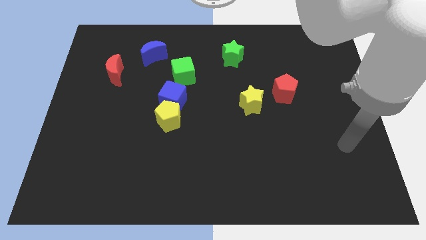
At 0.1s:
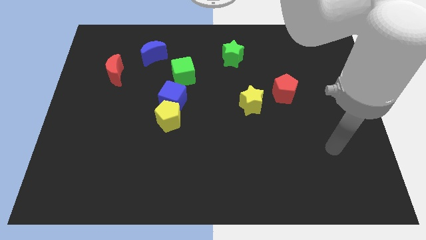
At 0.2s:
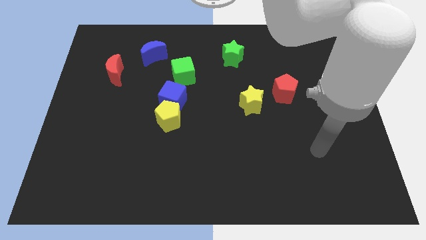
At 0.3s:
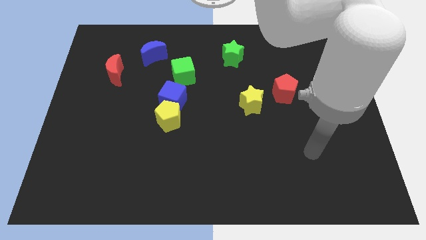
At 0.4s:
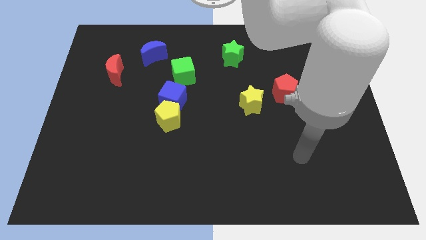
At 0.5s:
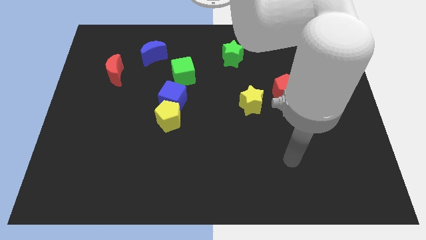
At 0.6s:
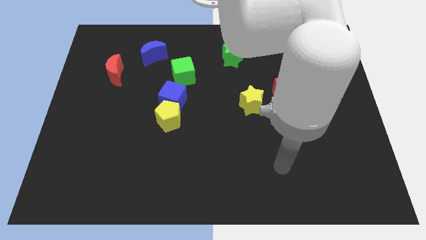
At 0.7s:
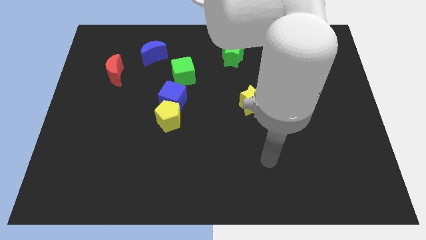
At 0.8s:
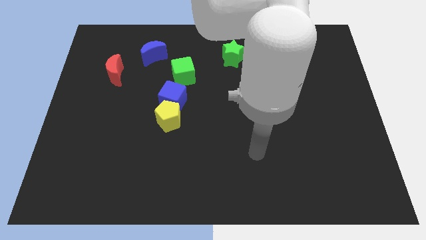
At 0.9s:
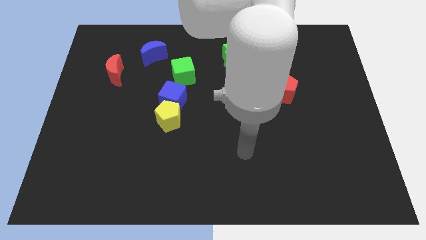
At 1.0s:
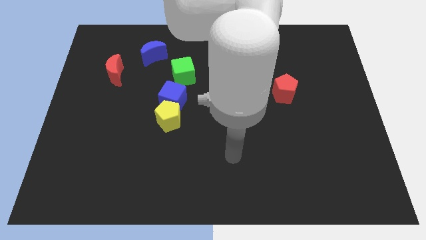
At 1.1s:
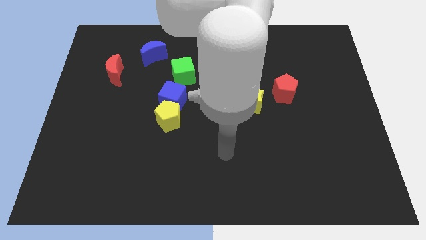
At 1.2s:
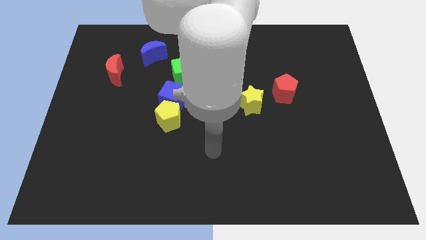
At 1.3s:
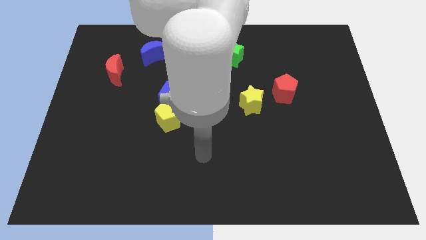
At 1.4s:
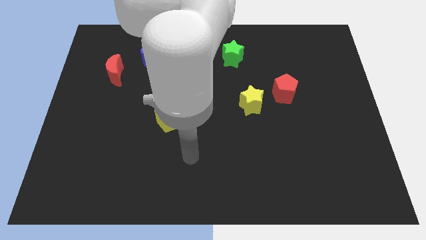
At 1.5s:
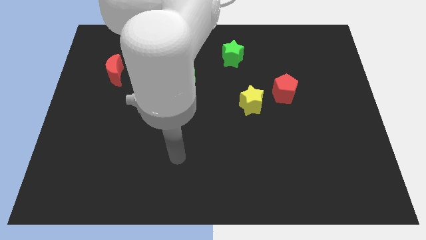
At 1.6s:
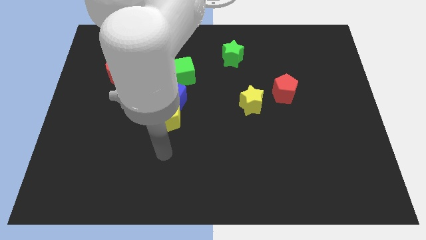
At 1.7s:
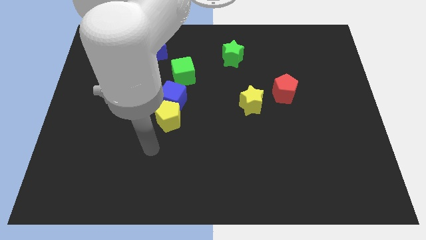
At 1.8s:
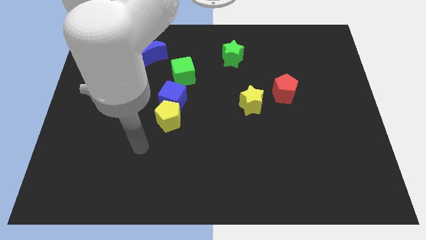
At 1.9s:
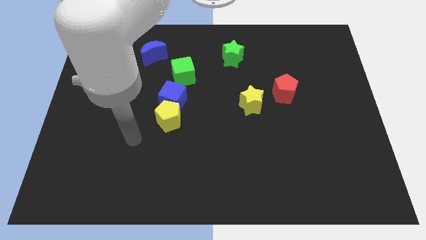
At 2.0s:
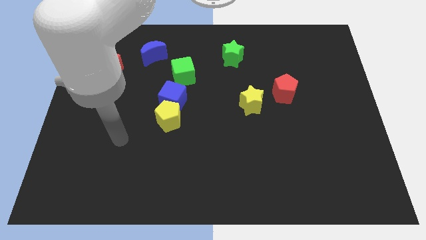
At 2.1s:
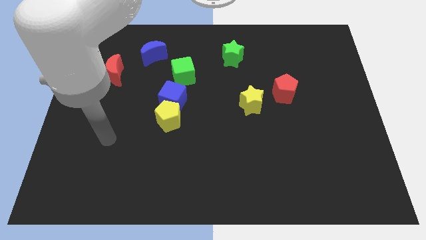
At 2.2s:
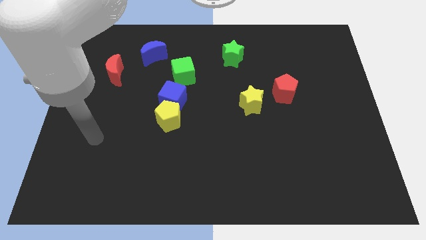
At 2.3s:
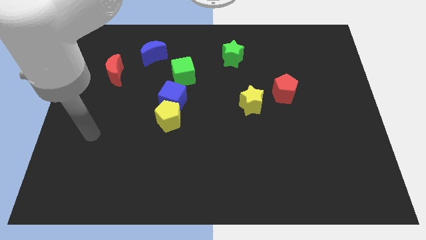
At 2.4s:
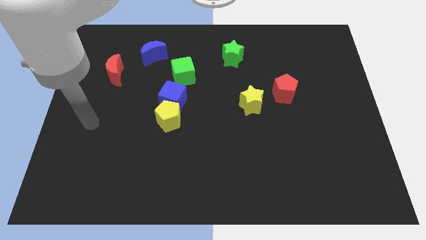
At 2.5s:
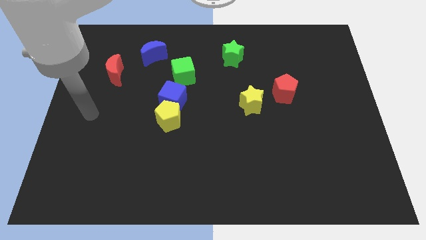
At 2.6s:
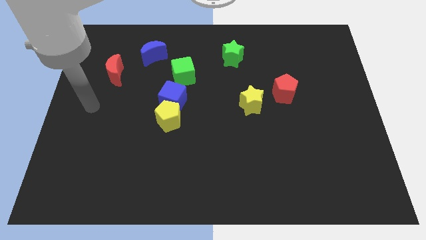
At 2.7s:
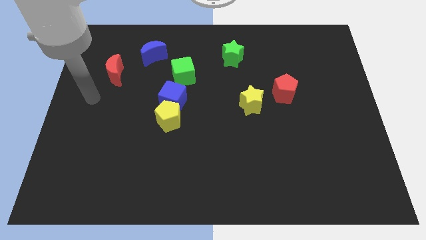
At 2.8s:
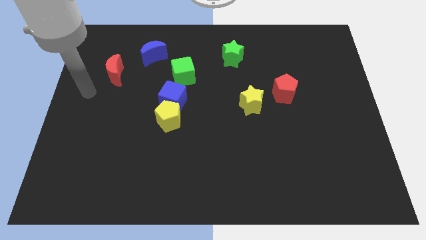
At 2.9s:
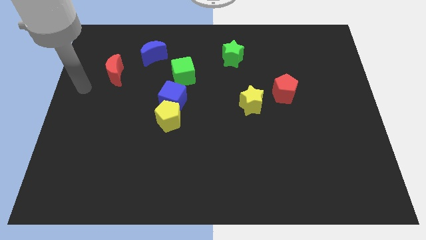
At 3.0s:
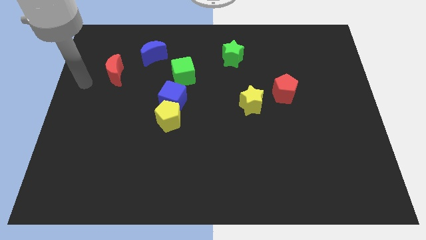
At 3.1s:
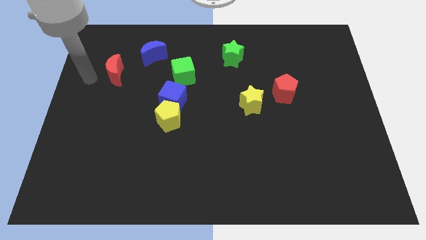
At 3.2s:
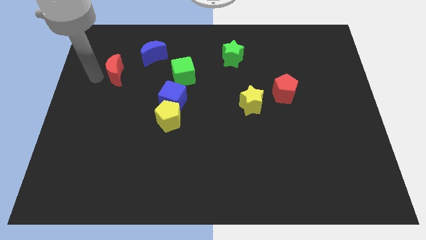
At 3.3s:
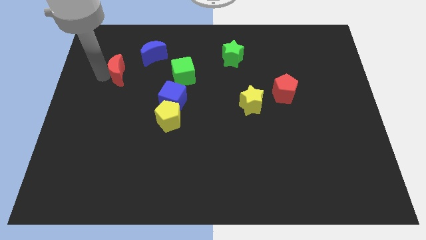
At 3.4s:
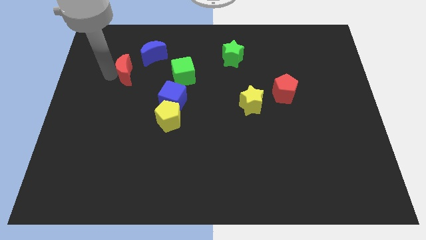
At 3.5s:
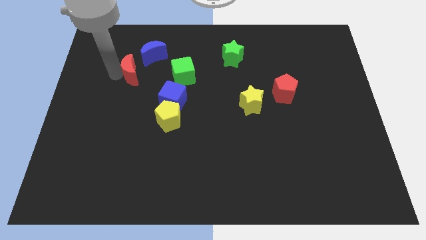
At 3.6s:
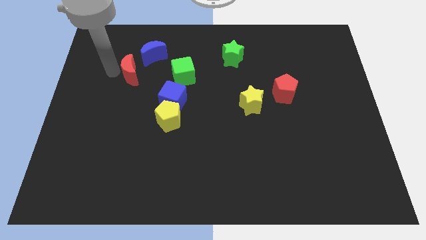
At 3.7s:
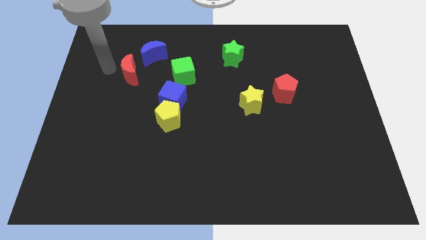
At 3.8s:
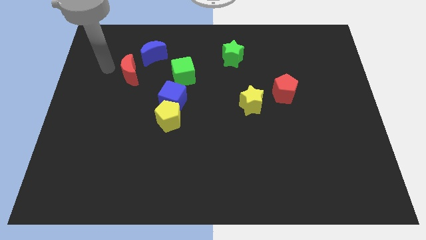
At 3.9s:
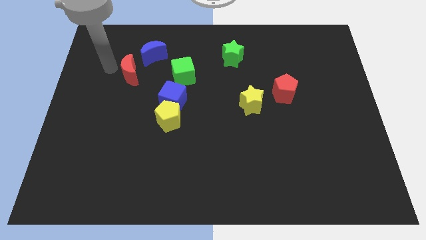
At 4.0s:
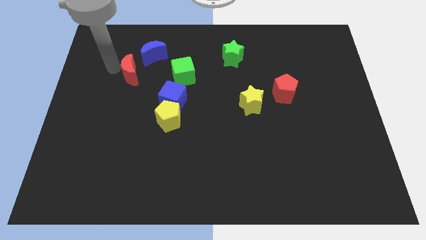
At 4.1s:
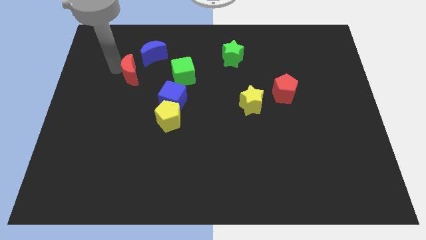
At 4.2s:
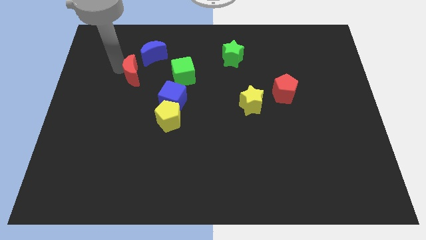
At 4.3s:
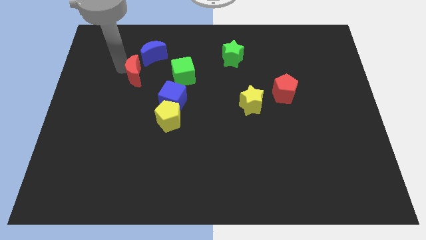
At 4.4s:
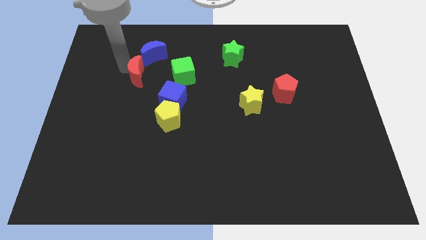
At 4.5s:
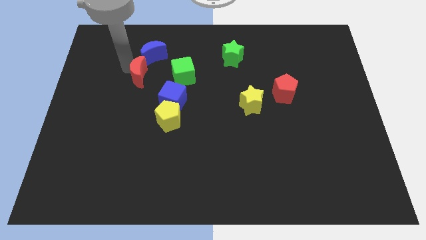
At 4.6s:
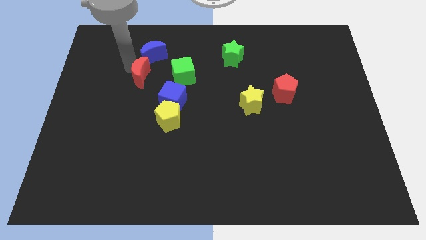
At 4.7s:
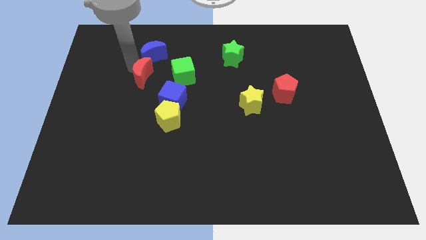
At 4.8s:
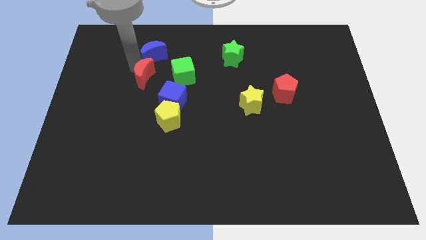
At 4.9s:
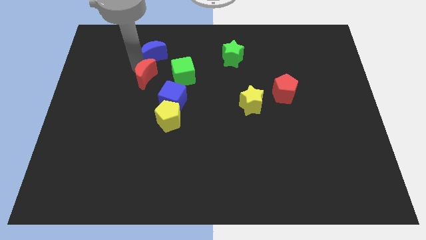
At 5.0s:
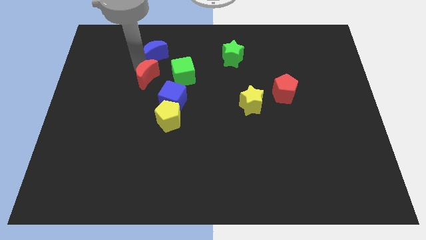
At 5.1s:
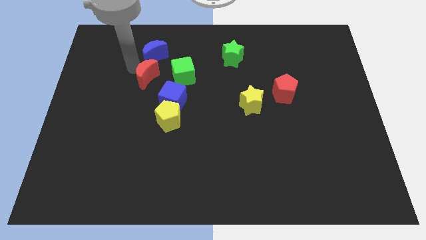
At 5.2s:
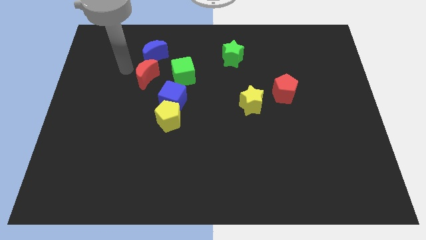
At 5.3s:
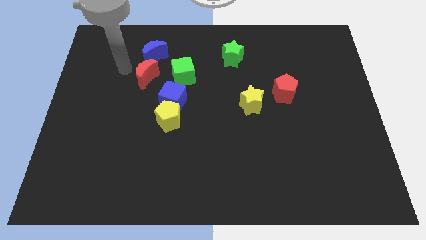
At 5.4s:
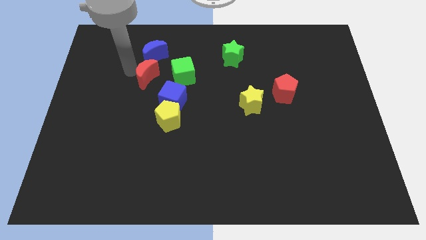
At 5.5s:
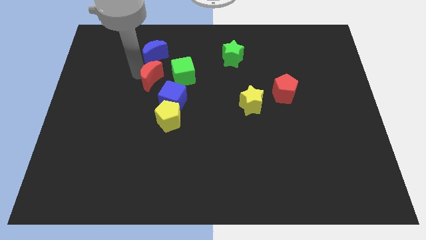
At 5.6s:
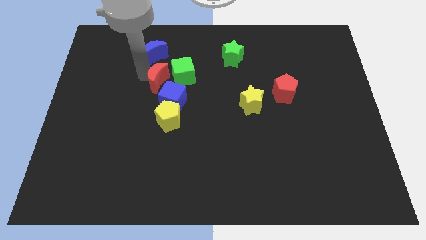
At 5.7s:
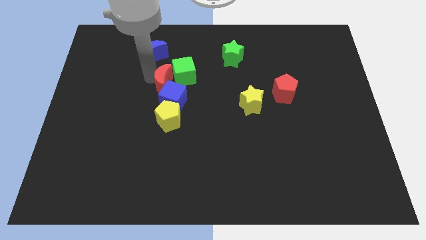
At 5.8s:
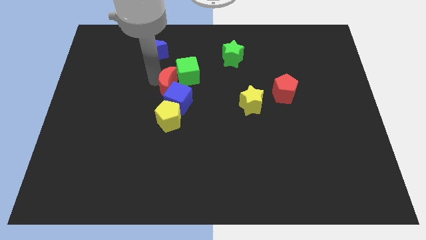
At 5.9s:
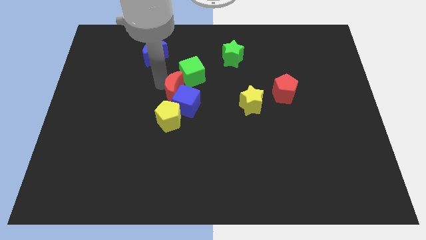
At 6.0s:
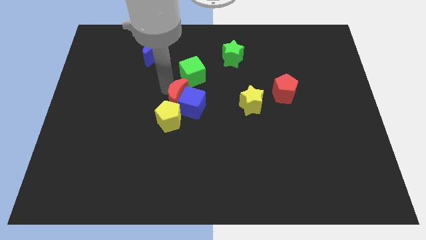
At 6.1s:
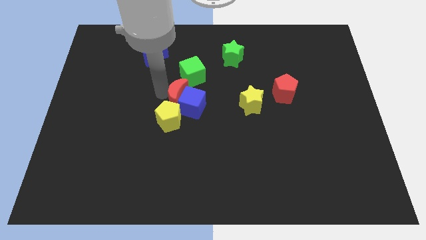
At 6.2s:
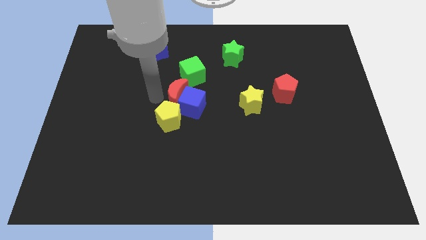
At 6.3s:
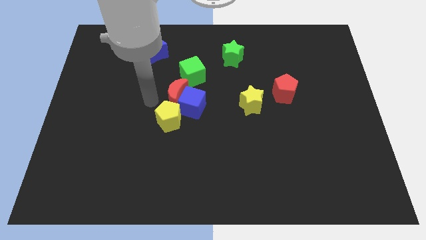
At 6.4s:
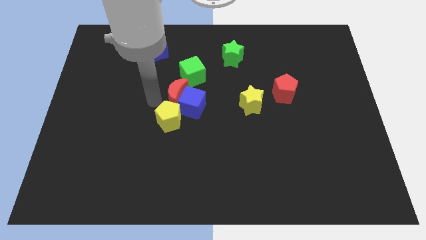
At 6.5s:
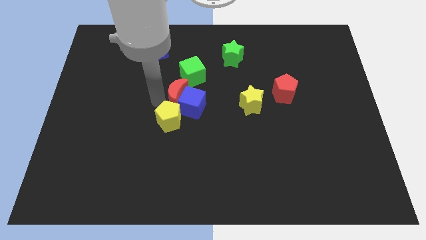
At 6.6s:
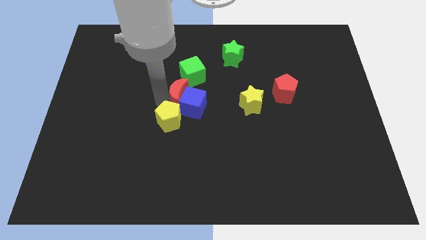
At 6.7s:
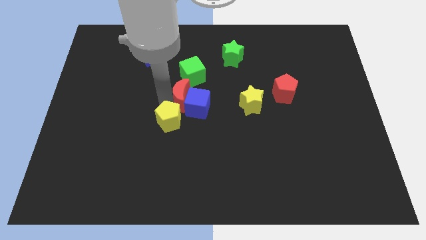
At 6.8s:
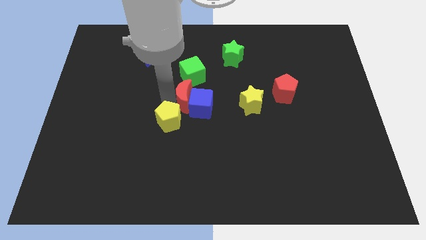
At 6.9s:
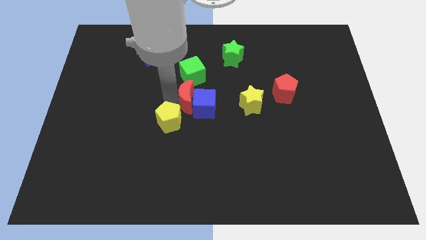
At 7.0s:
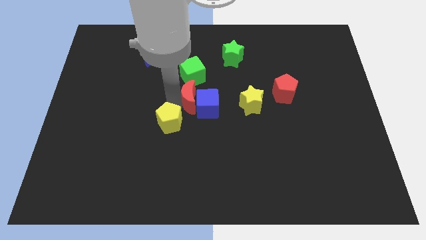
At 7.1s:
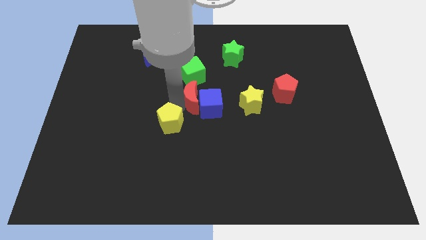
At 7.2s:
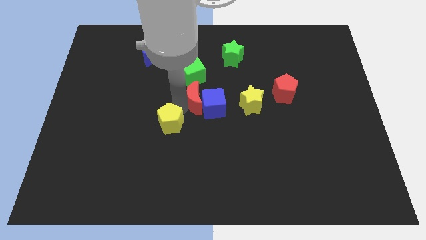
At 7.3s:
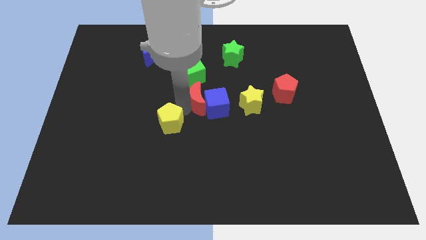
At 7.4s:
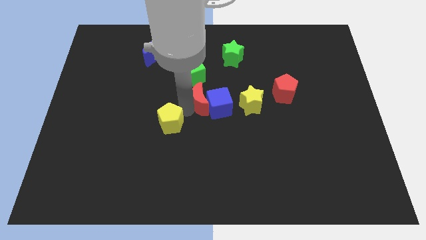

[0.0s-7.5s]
slide the red moon to the bottom right side of the green cube
